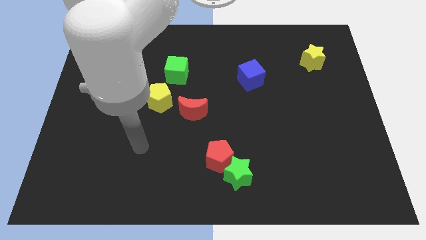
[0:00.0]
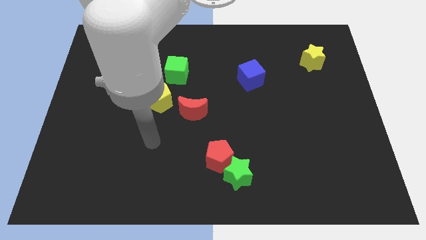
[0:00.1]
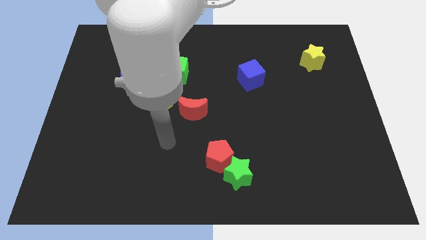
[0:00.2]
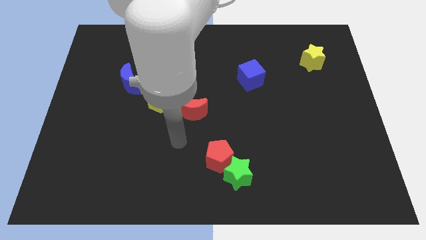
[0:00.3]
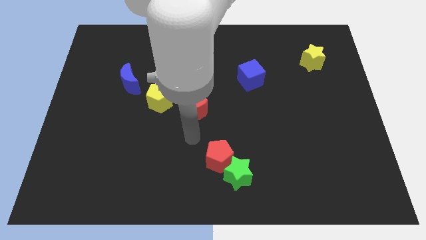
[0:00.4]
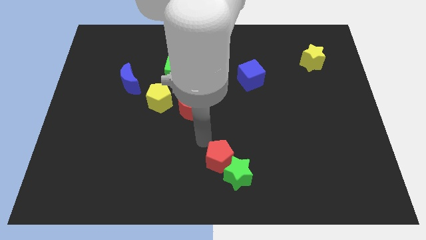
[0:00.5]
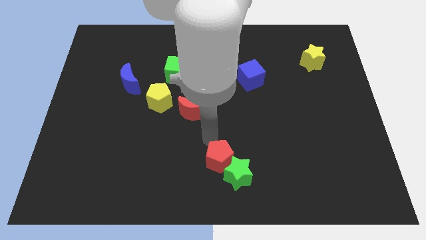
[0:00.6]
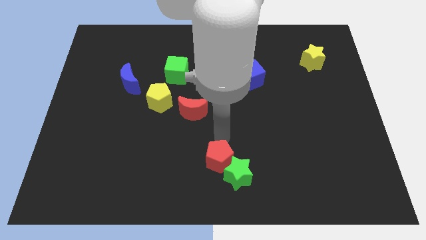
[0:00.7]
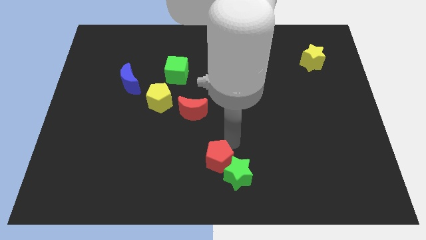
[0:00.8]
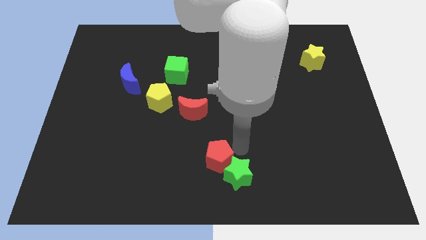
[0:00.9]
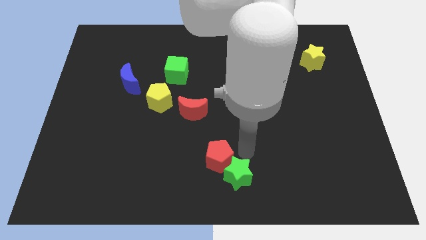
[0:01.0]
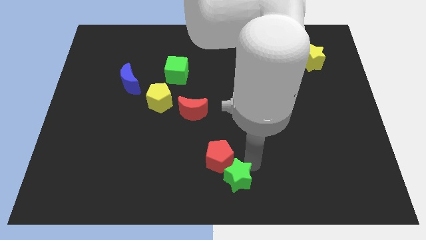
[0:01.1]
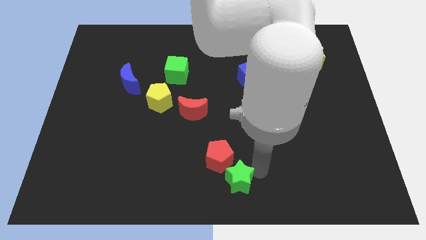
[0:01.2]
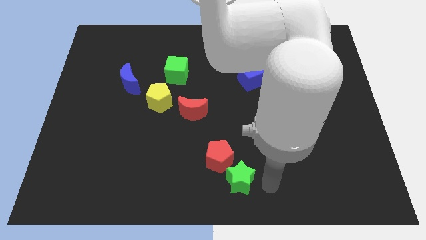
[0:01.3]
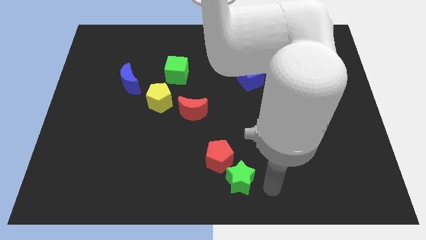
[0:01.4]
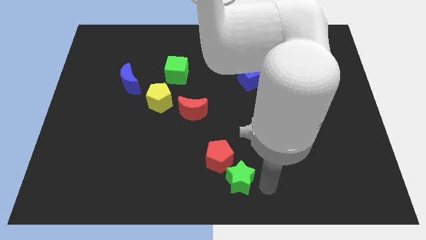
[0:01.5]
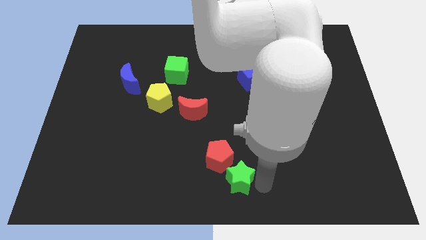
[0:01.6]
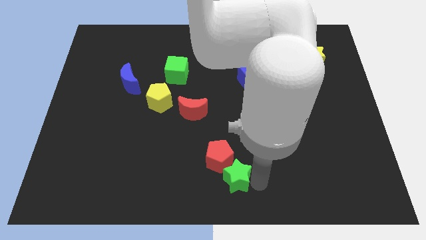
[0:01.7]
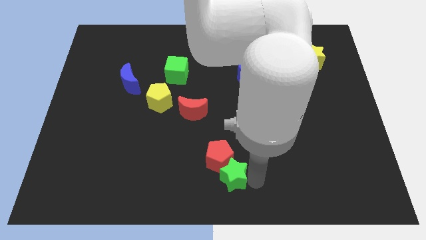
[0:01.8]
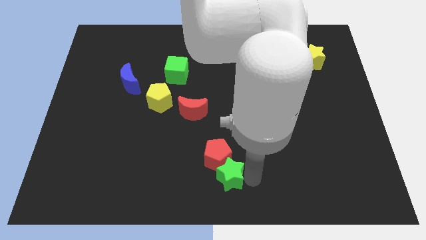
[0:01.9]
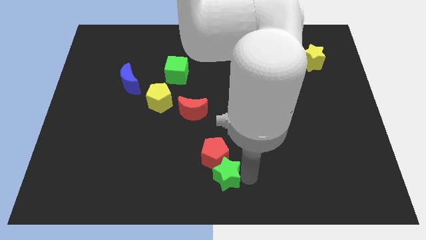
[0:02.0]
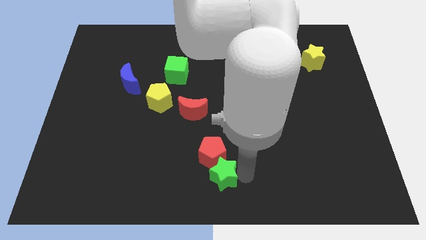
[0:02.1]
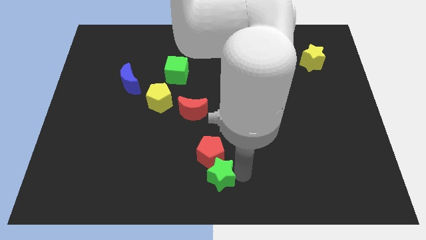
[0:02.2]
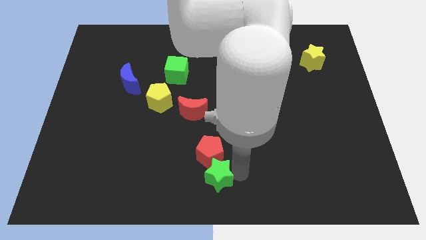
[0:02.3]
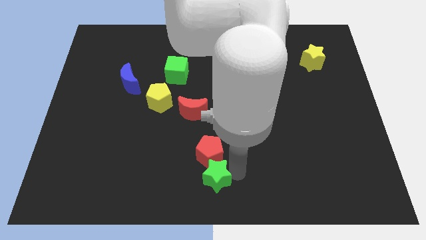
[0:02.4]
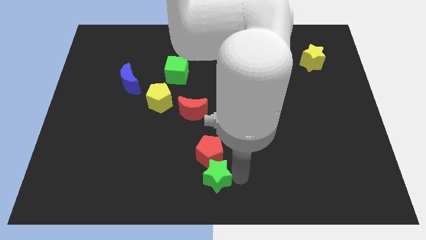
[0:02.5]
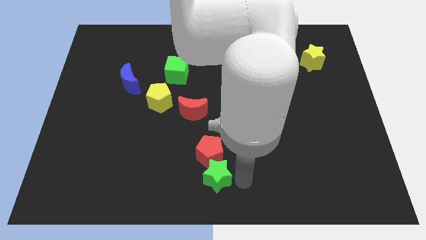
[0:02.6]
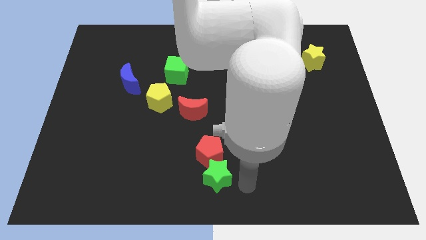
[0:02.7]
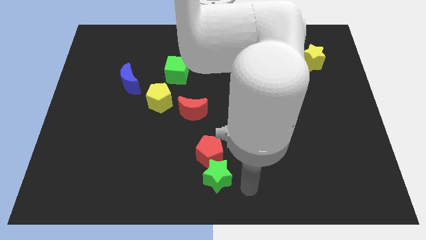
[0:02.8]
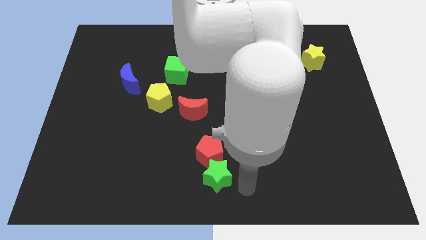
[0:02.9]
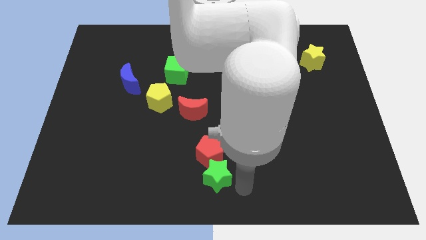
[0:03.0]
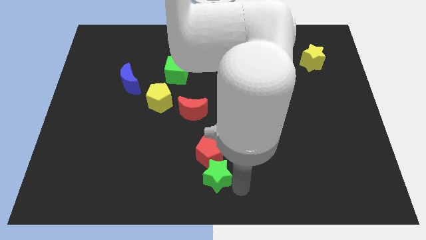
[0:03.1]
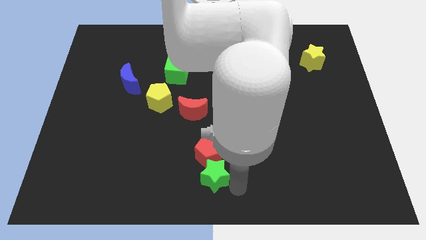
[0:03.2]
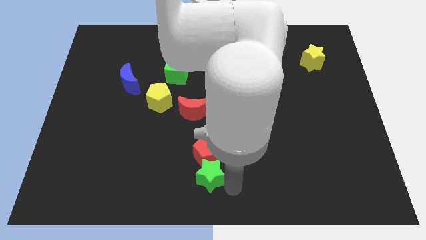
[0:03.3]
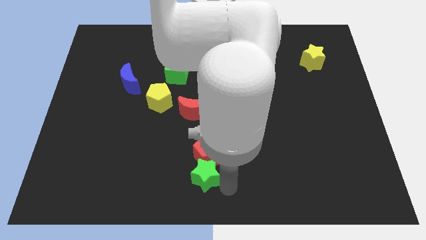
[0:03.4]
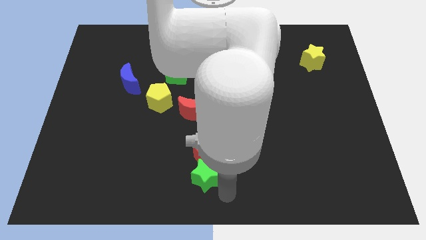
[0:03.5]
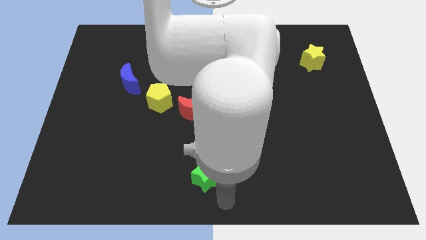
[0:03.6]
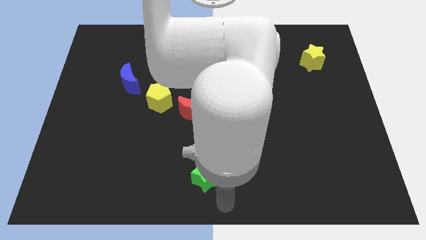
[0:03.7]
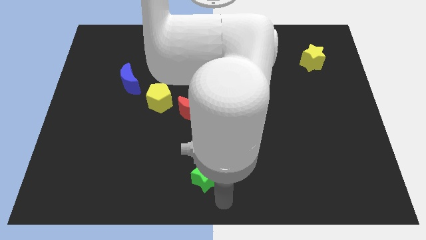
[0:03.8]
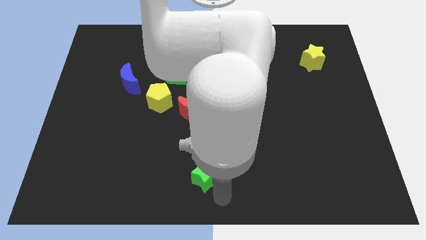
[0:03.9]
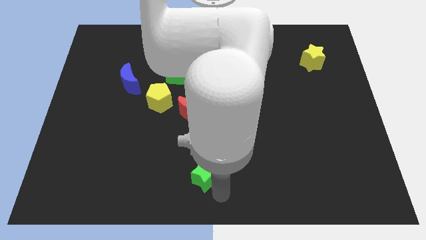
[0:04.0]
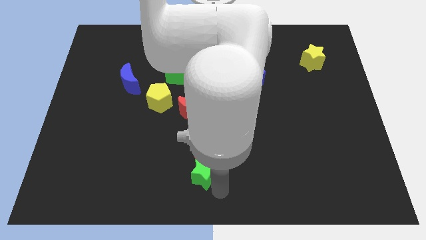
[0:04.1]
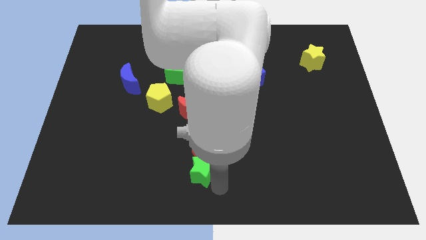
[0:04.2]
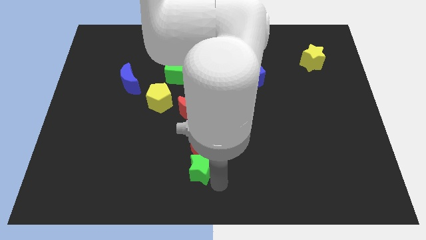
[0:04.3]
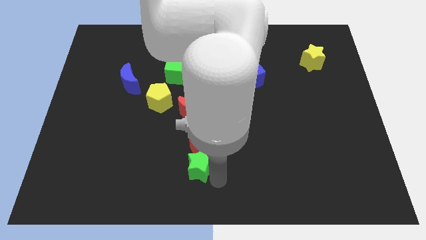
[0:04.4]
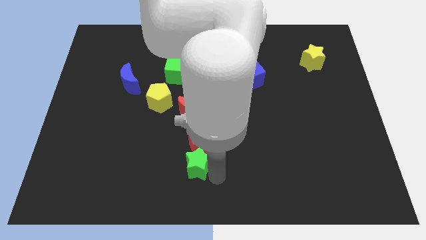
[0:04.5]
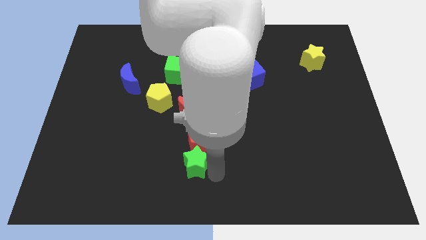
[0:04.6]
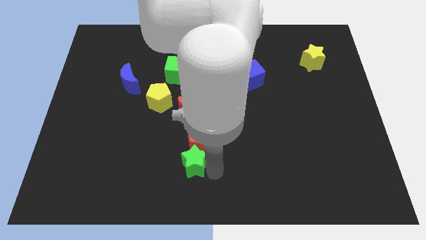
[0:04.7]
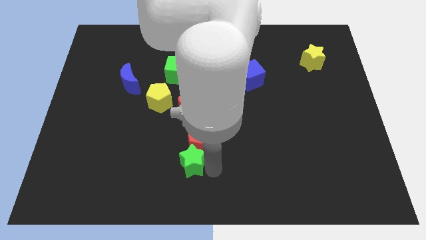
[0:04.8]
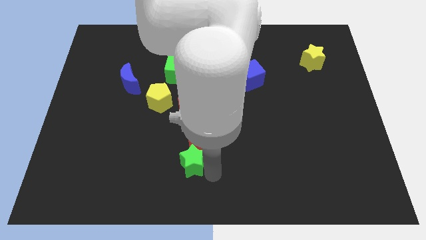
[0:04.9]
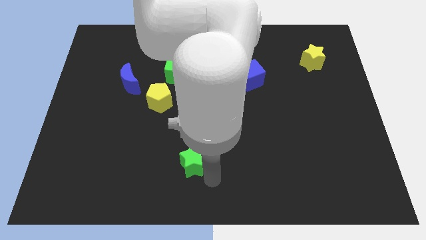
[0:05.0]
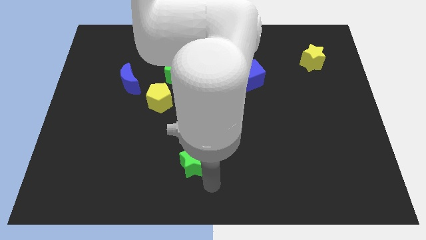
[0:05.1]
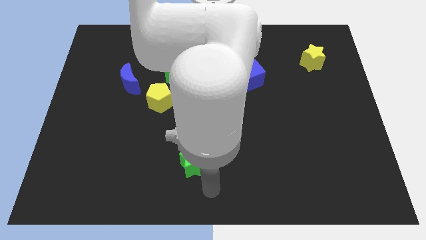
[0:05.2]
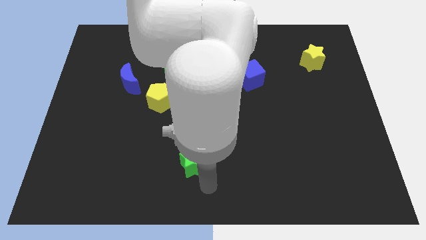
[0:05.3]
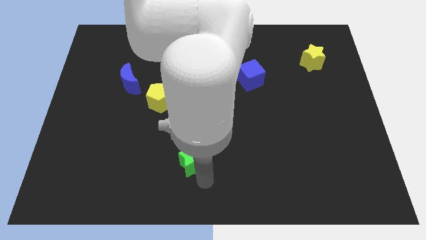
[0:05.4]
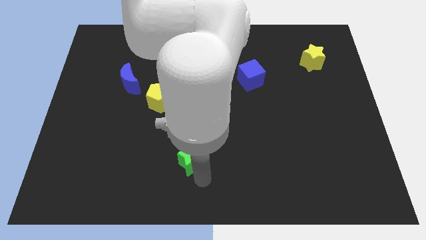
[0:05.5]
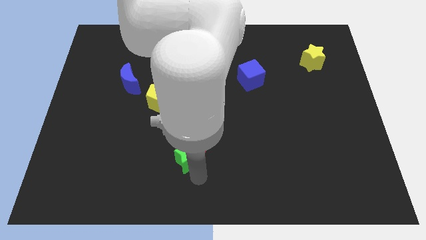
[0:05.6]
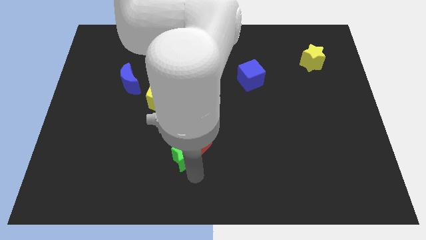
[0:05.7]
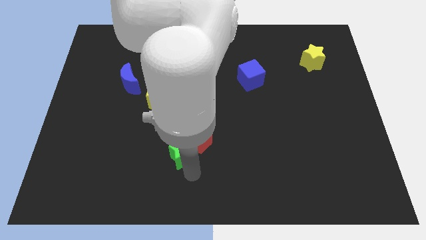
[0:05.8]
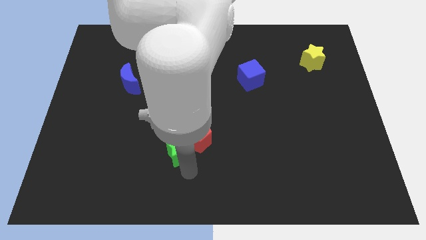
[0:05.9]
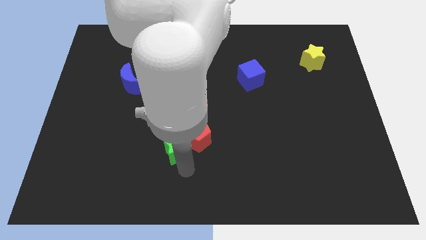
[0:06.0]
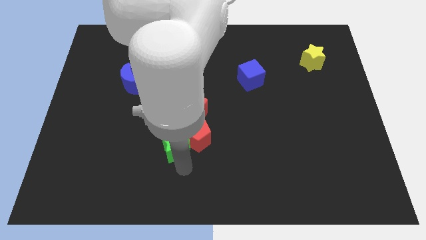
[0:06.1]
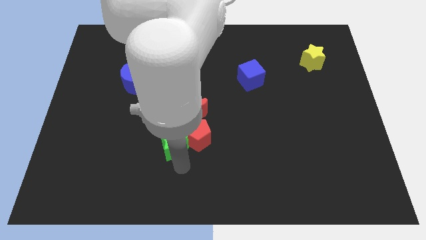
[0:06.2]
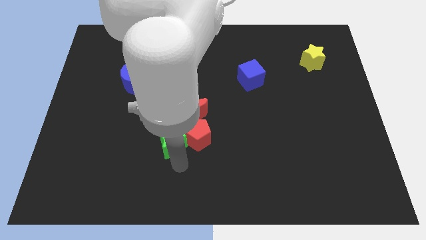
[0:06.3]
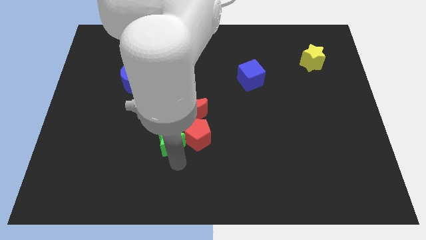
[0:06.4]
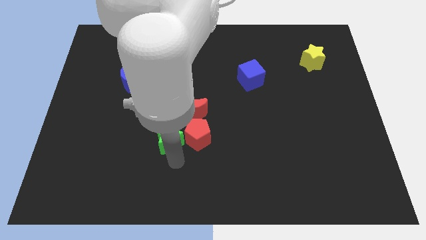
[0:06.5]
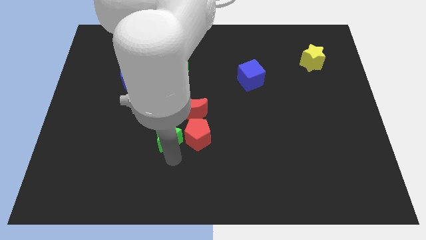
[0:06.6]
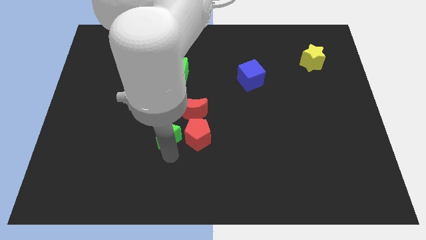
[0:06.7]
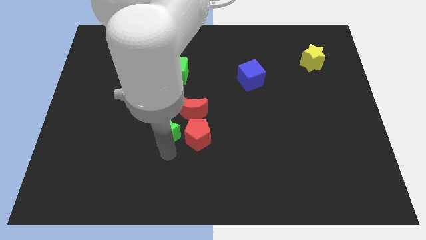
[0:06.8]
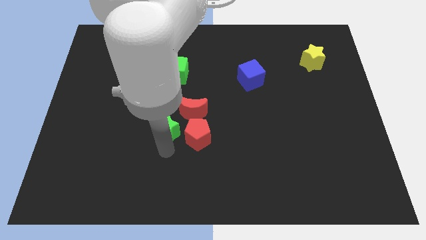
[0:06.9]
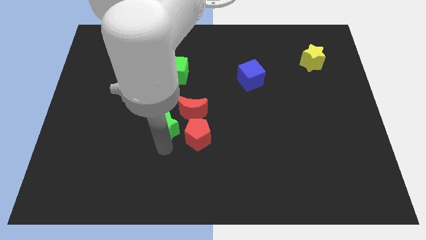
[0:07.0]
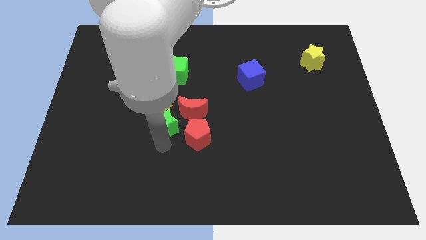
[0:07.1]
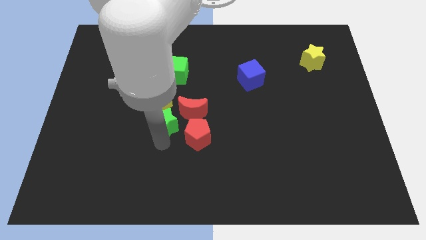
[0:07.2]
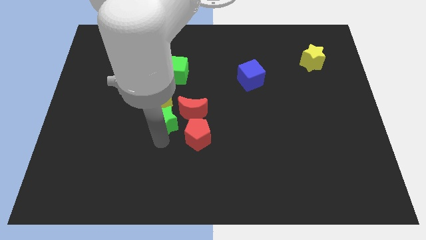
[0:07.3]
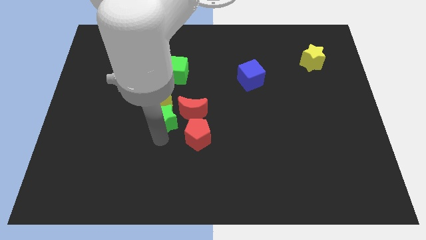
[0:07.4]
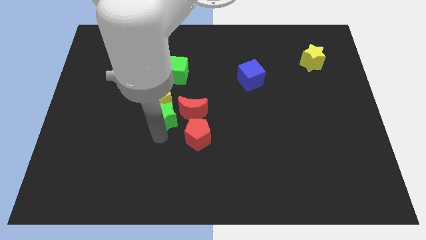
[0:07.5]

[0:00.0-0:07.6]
put the green star close to the yellow pentagon
